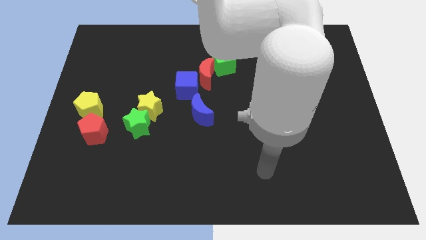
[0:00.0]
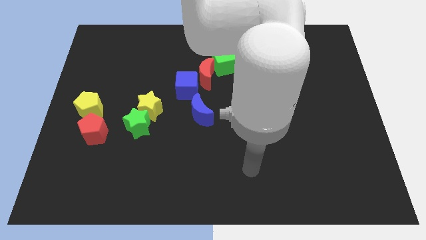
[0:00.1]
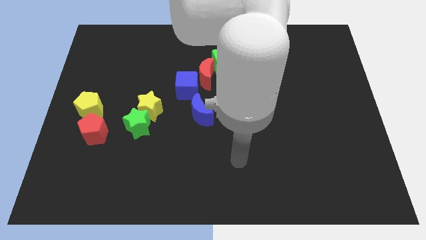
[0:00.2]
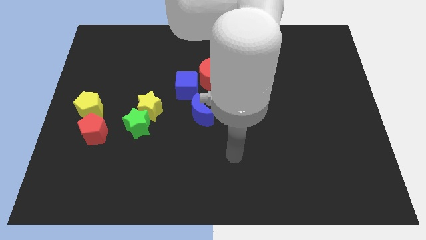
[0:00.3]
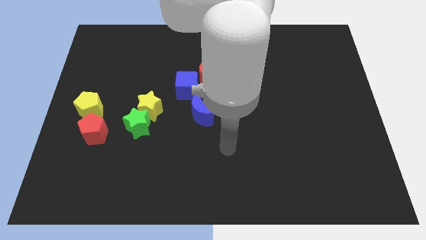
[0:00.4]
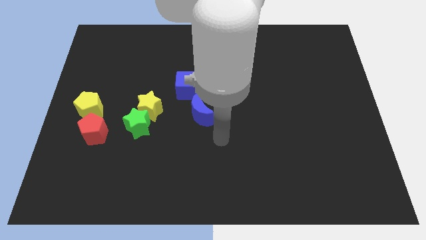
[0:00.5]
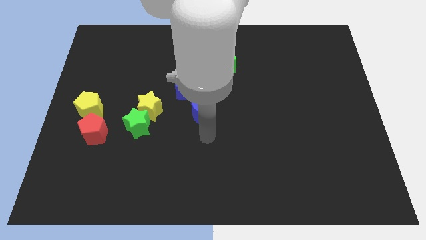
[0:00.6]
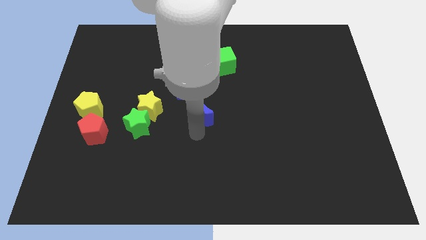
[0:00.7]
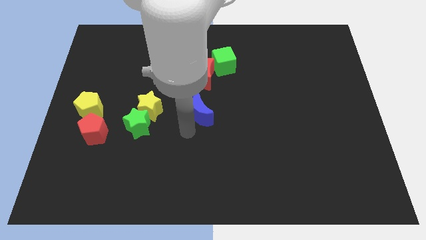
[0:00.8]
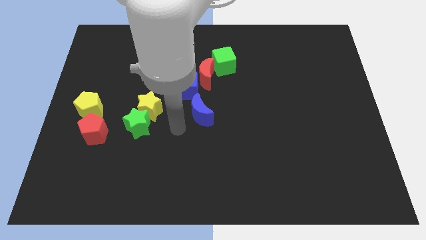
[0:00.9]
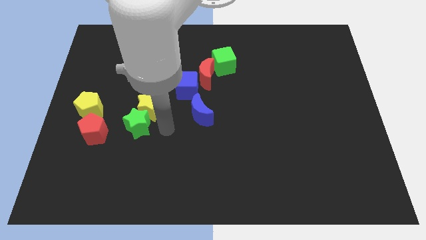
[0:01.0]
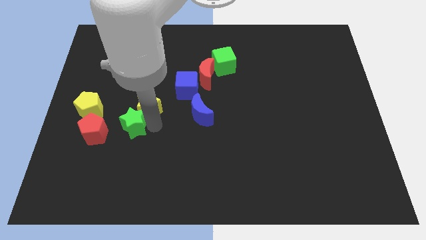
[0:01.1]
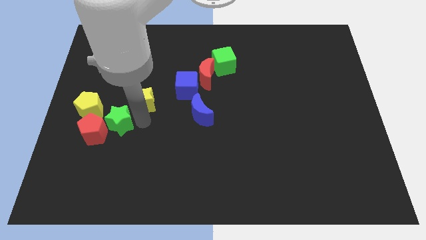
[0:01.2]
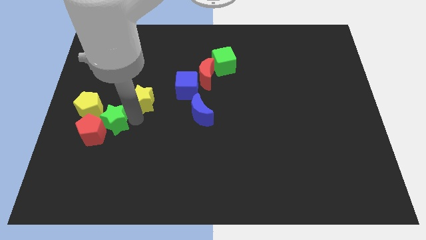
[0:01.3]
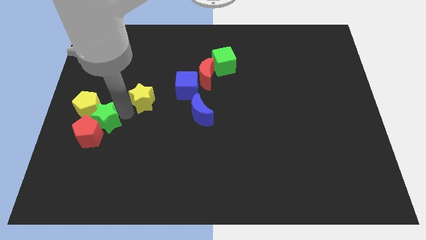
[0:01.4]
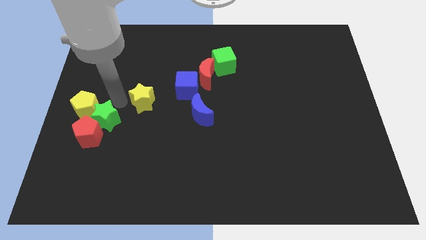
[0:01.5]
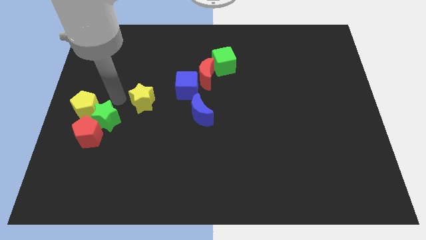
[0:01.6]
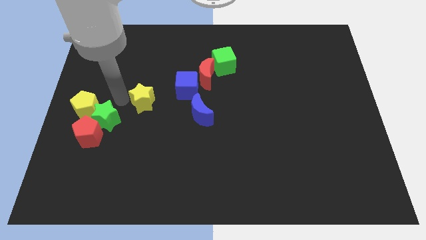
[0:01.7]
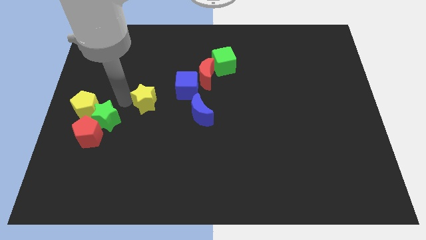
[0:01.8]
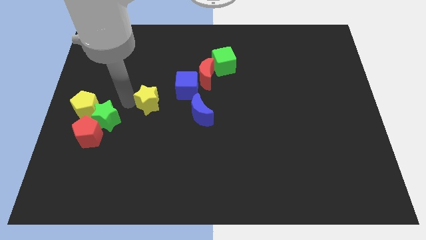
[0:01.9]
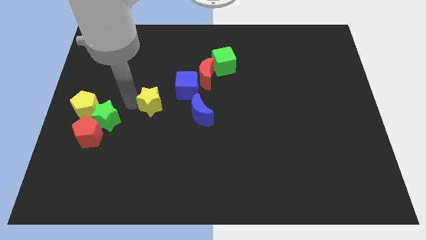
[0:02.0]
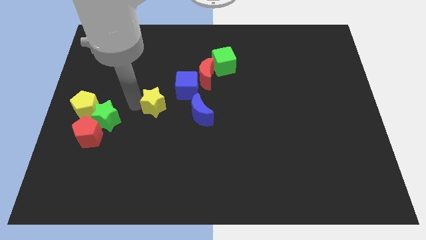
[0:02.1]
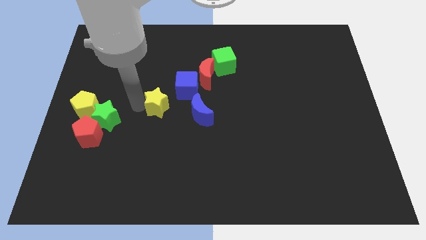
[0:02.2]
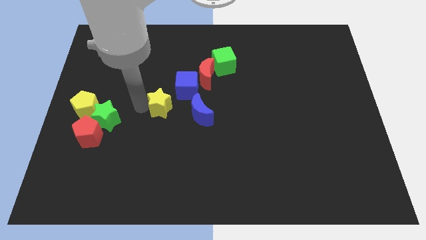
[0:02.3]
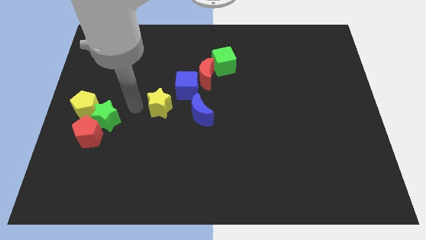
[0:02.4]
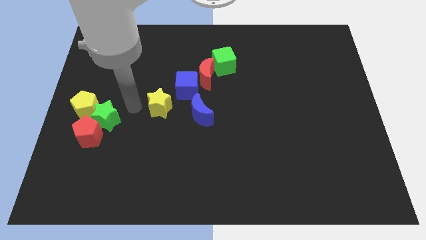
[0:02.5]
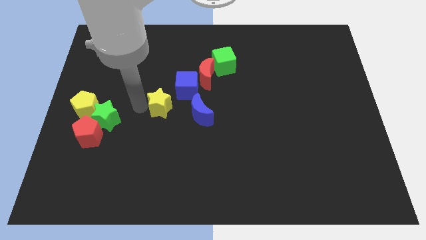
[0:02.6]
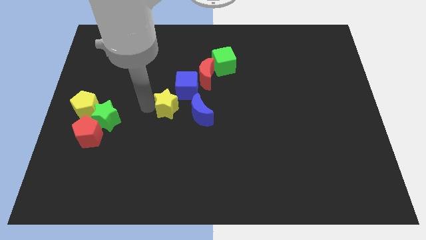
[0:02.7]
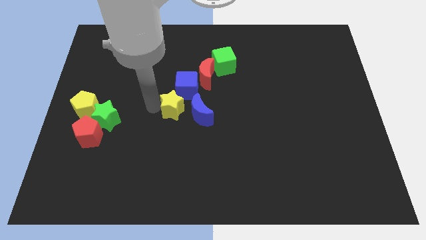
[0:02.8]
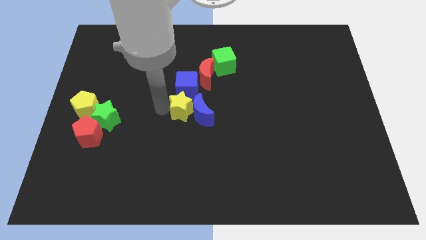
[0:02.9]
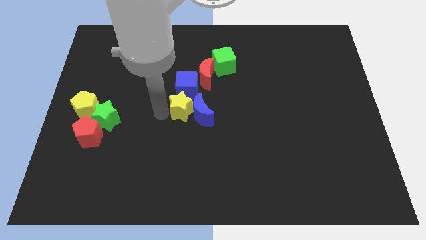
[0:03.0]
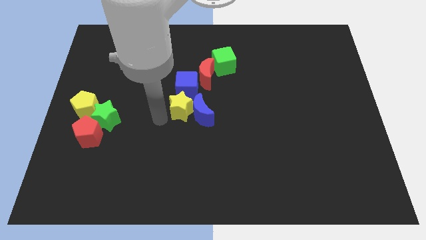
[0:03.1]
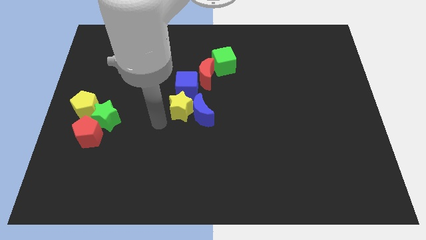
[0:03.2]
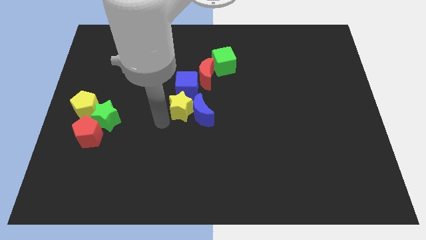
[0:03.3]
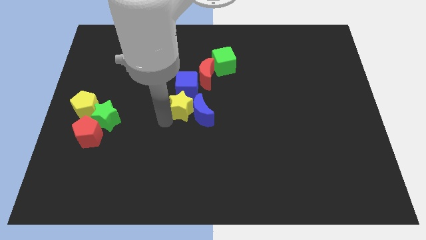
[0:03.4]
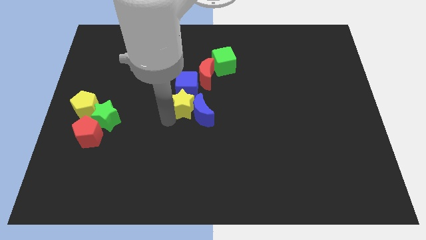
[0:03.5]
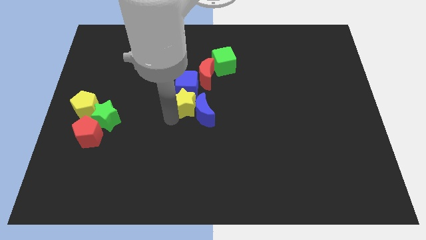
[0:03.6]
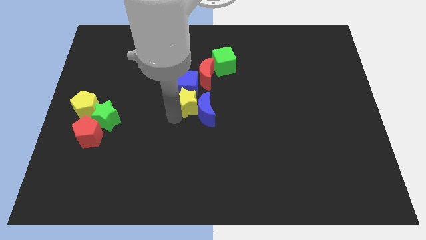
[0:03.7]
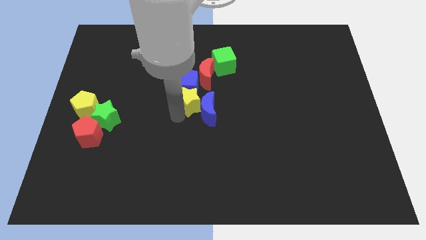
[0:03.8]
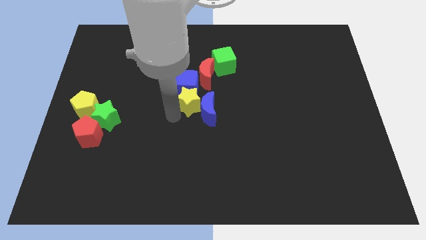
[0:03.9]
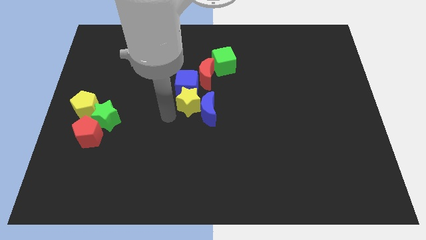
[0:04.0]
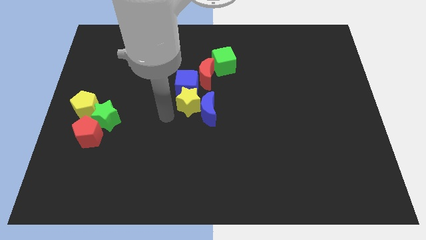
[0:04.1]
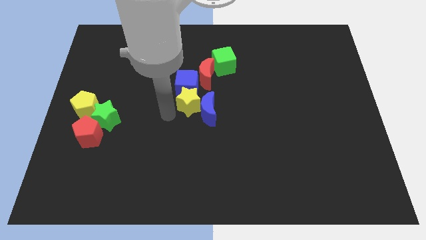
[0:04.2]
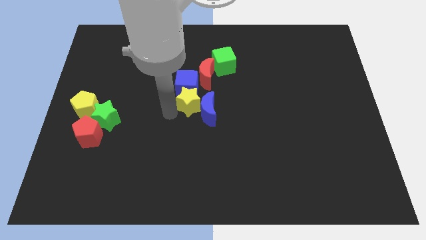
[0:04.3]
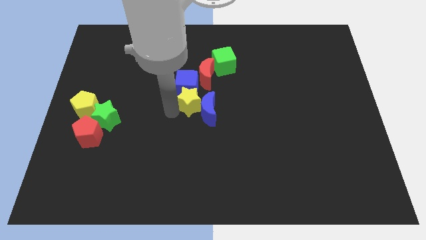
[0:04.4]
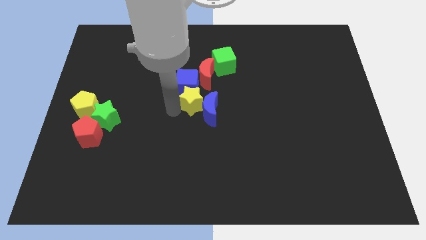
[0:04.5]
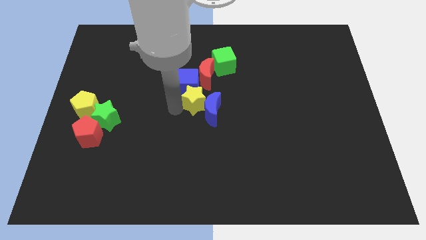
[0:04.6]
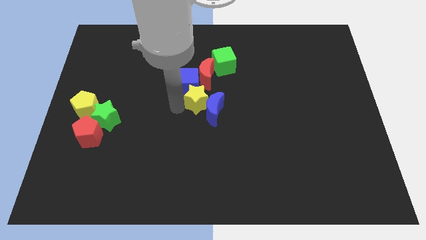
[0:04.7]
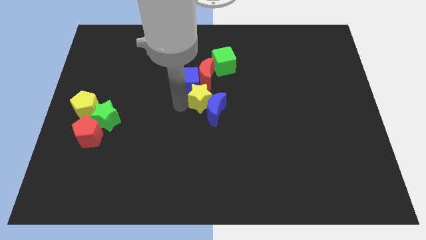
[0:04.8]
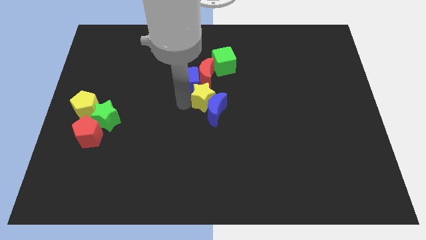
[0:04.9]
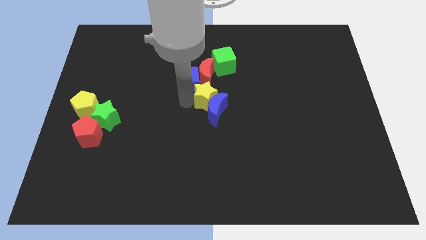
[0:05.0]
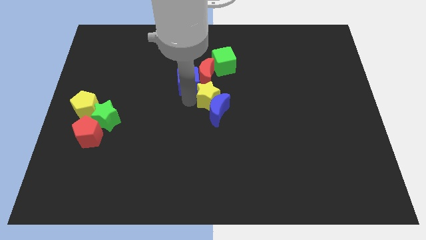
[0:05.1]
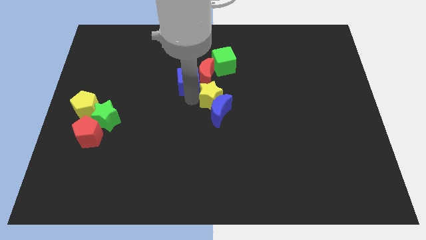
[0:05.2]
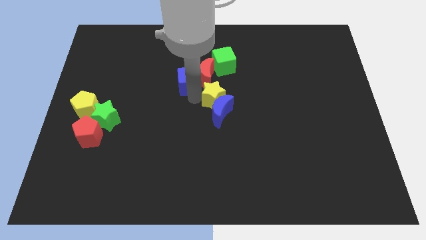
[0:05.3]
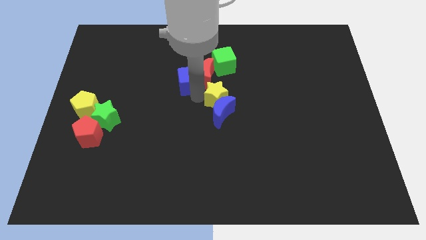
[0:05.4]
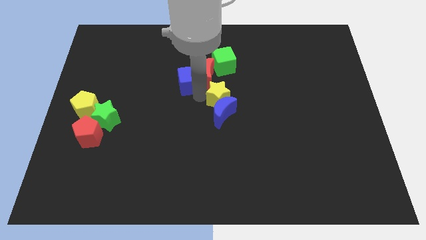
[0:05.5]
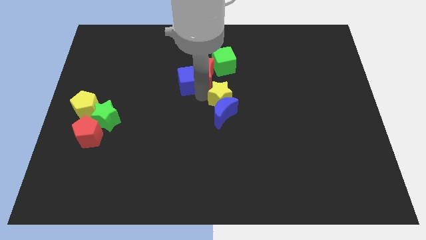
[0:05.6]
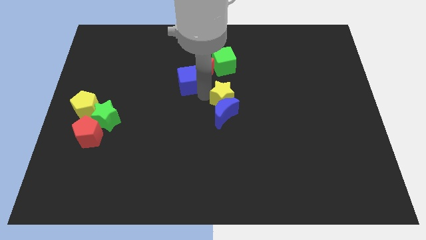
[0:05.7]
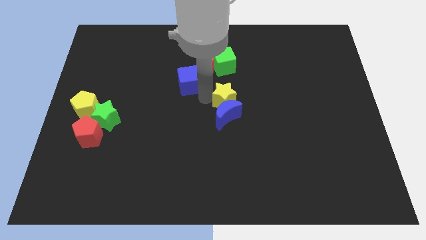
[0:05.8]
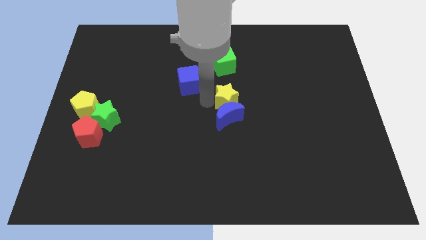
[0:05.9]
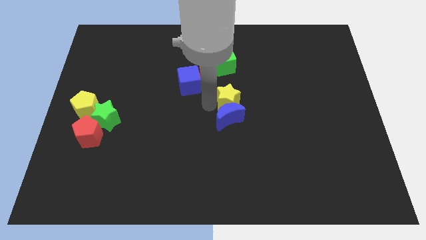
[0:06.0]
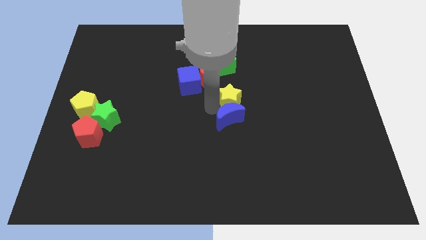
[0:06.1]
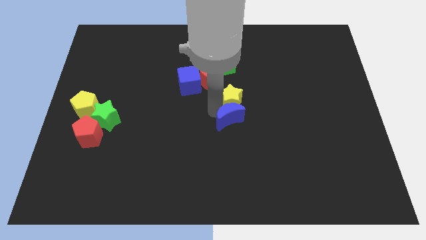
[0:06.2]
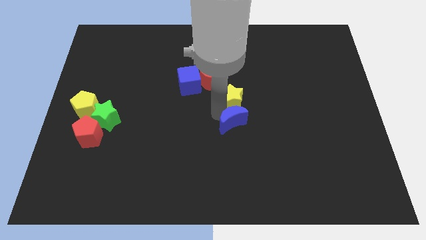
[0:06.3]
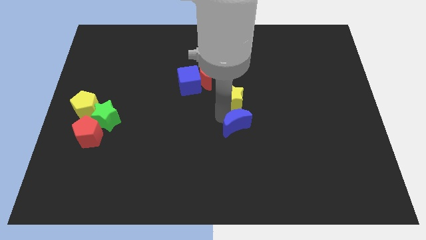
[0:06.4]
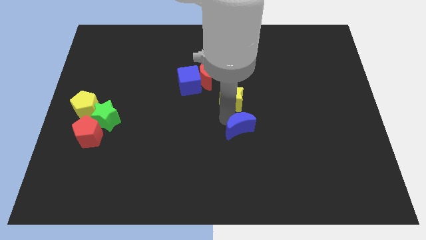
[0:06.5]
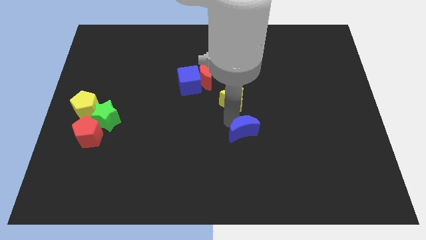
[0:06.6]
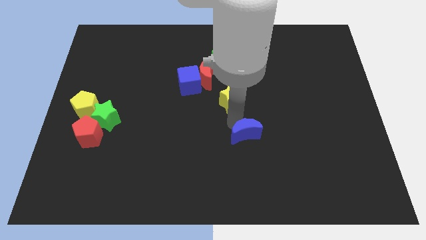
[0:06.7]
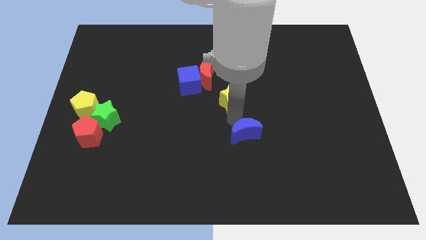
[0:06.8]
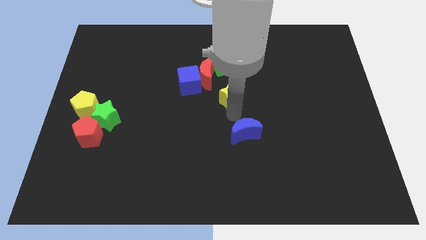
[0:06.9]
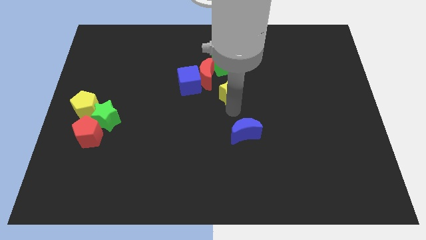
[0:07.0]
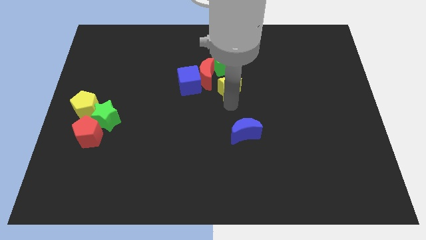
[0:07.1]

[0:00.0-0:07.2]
move the yellow star to the right side of the red moon
